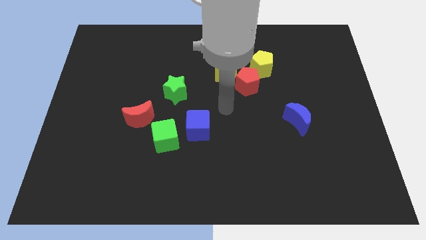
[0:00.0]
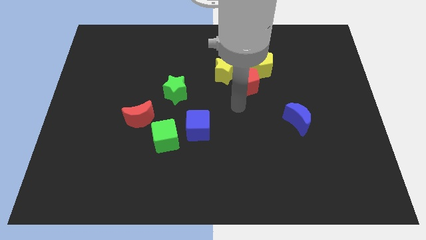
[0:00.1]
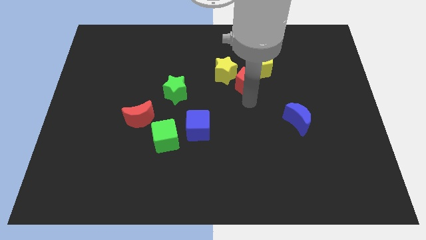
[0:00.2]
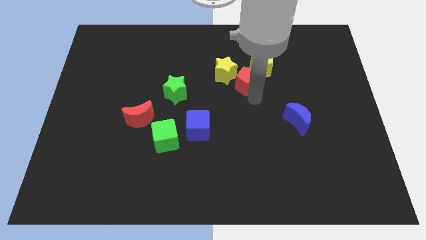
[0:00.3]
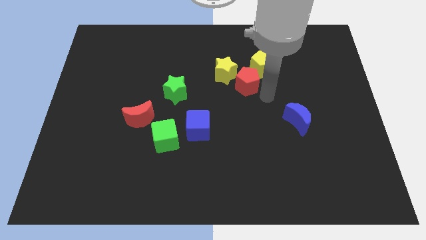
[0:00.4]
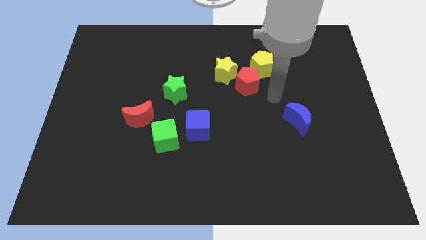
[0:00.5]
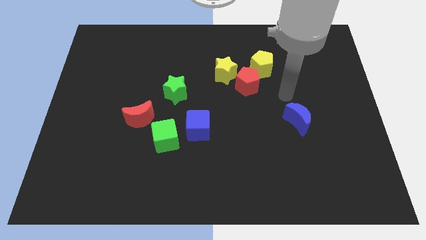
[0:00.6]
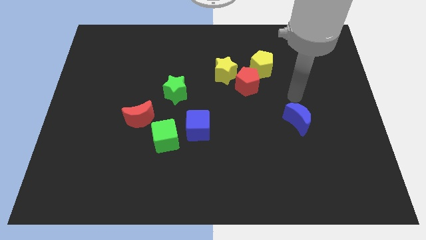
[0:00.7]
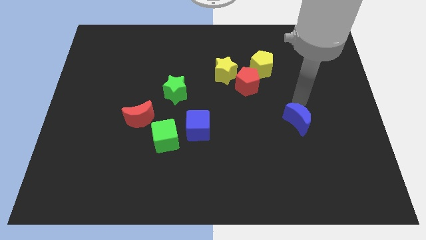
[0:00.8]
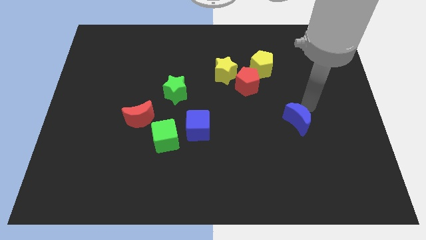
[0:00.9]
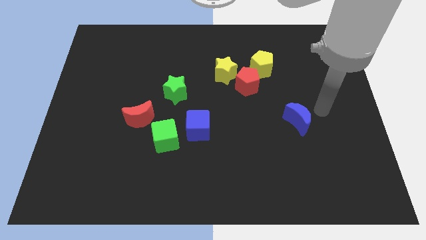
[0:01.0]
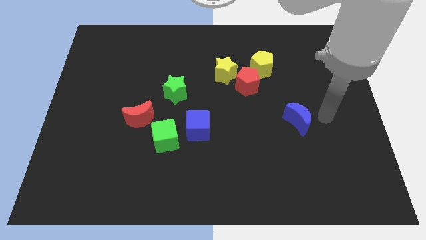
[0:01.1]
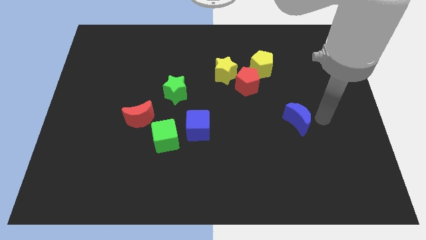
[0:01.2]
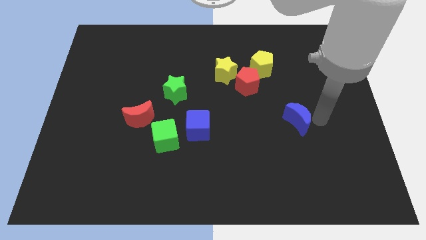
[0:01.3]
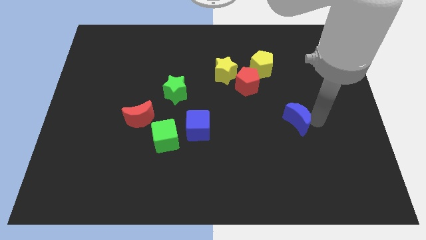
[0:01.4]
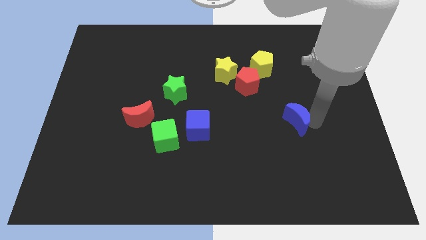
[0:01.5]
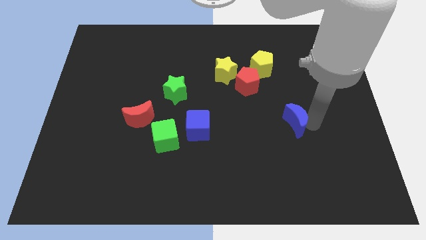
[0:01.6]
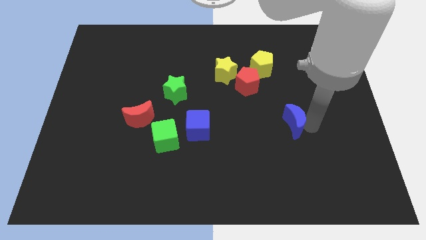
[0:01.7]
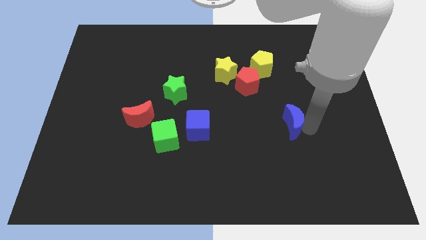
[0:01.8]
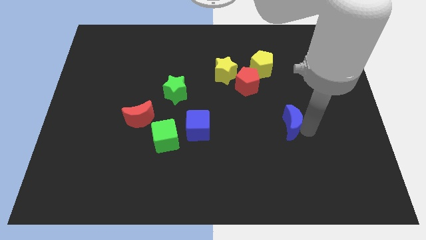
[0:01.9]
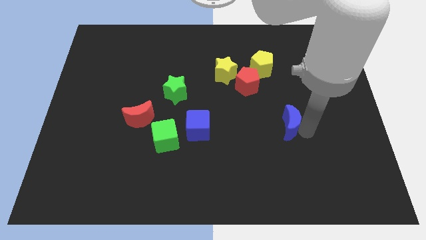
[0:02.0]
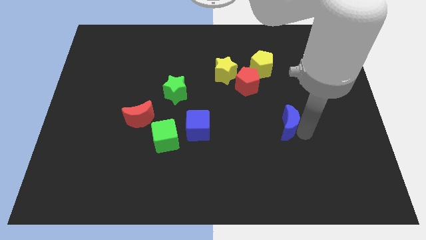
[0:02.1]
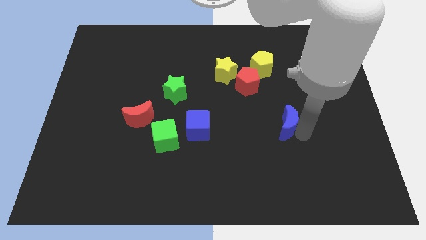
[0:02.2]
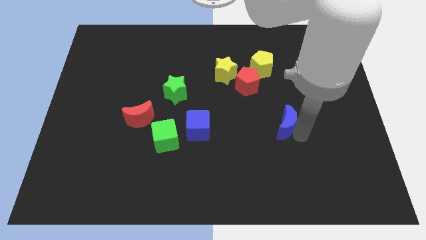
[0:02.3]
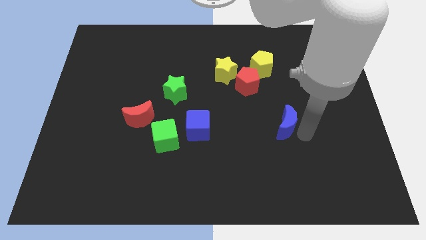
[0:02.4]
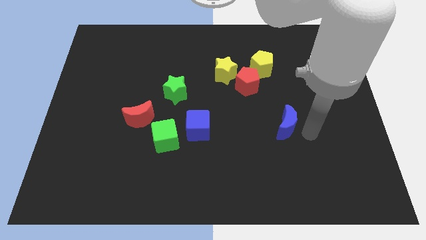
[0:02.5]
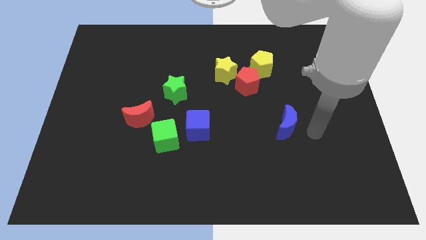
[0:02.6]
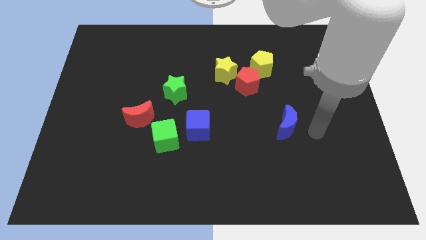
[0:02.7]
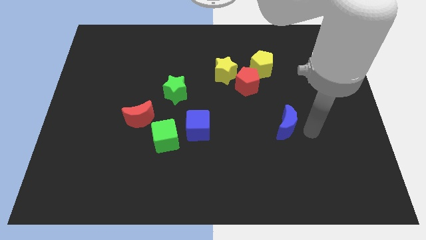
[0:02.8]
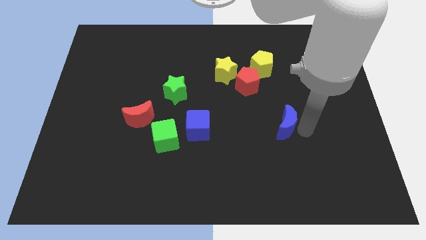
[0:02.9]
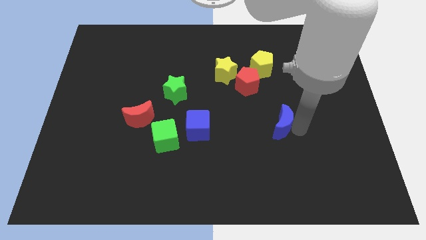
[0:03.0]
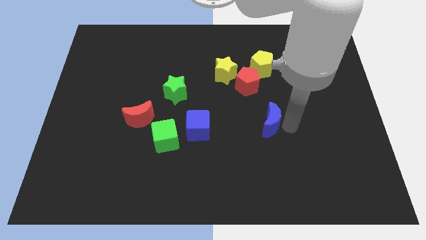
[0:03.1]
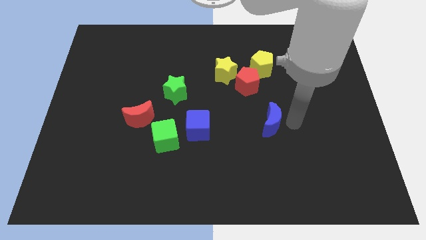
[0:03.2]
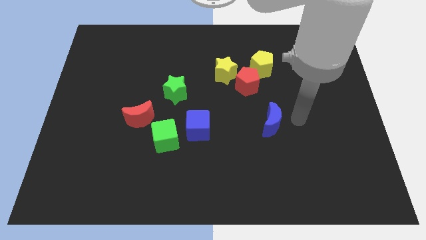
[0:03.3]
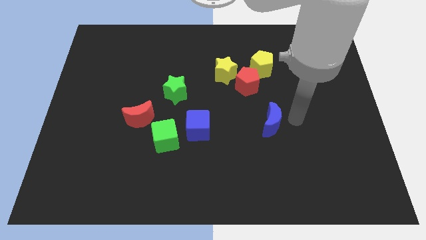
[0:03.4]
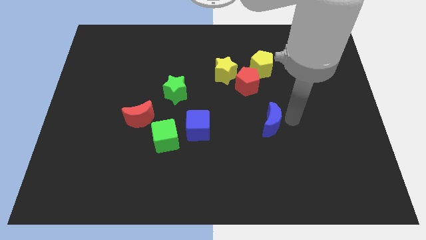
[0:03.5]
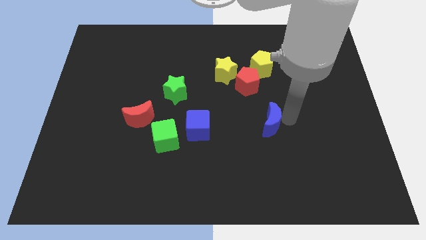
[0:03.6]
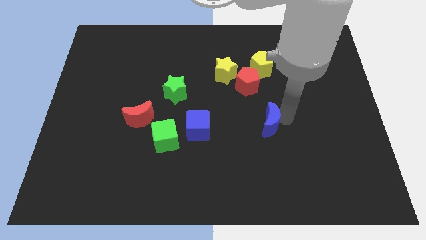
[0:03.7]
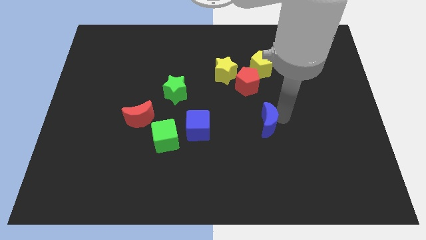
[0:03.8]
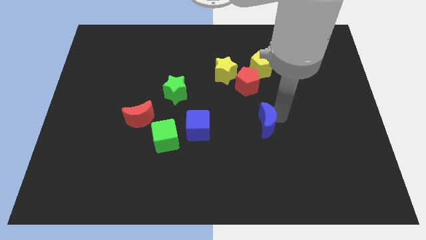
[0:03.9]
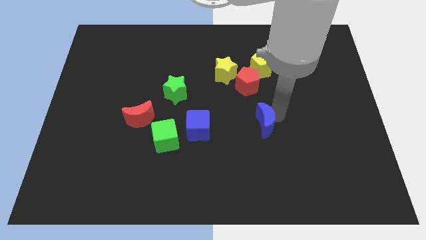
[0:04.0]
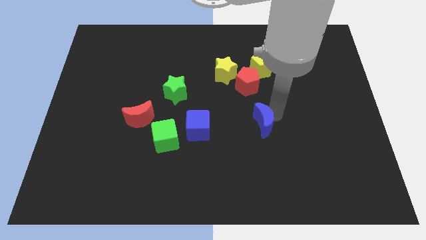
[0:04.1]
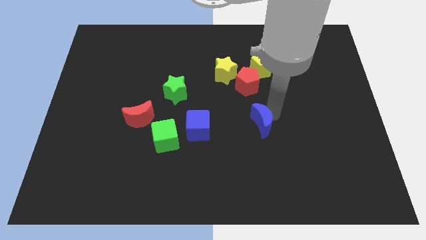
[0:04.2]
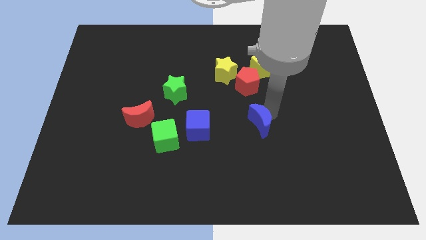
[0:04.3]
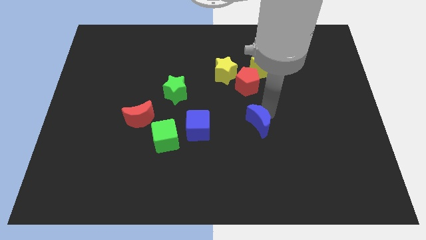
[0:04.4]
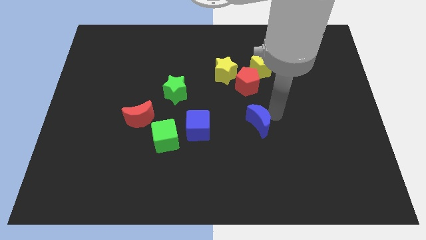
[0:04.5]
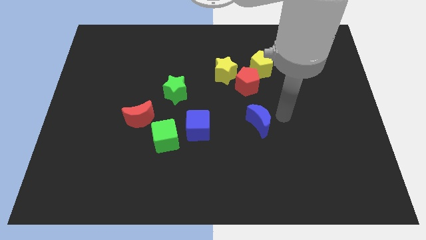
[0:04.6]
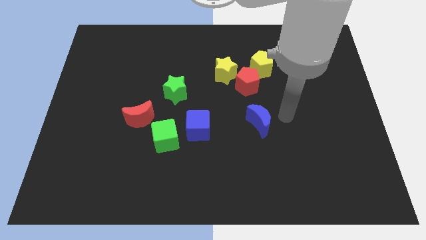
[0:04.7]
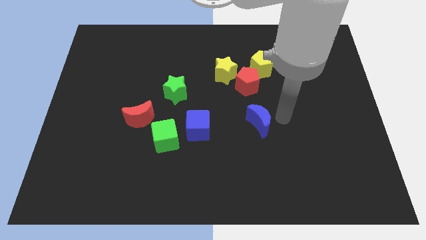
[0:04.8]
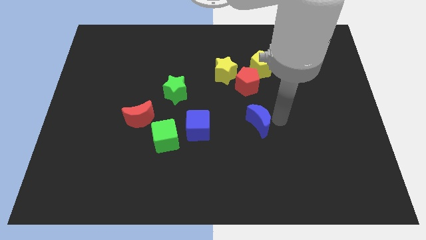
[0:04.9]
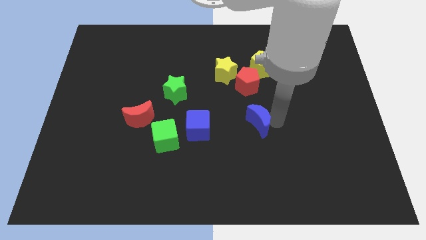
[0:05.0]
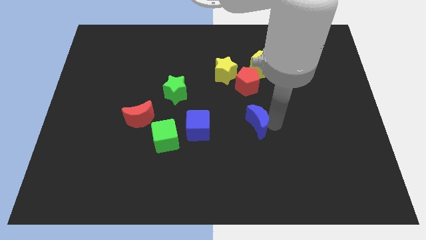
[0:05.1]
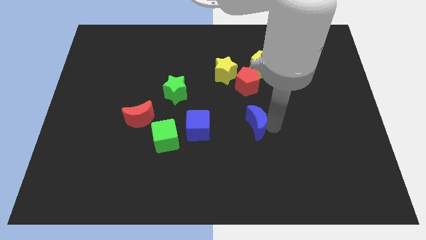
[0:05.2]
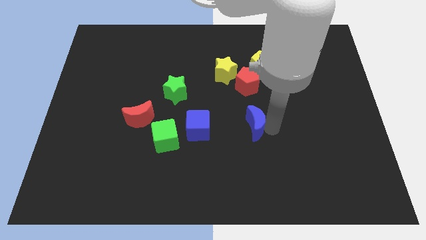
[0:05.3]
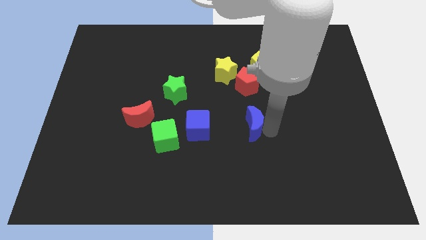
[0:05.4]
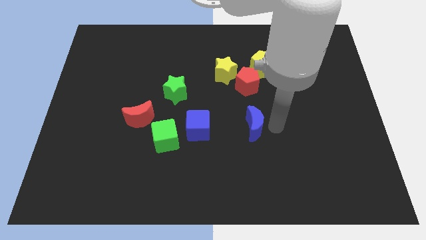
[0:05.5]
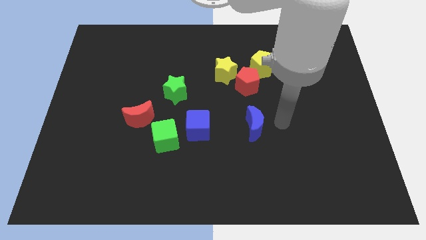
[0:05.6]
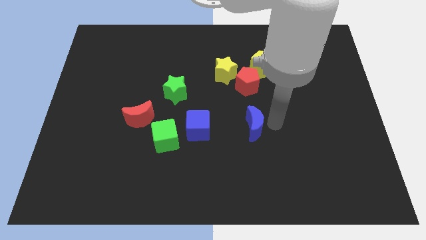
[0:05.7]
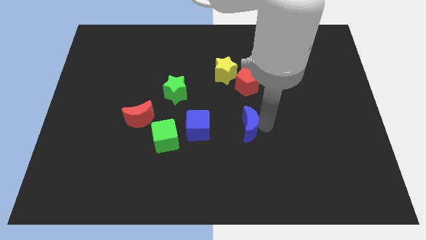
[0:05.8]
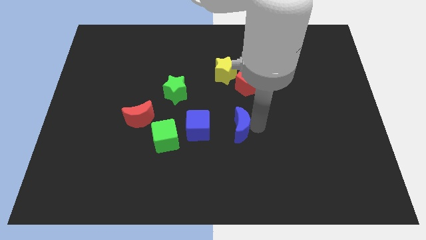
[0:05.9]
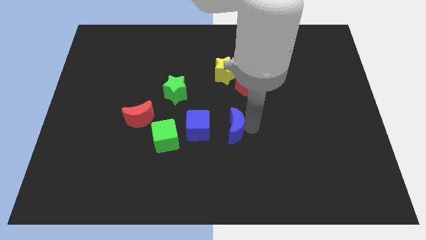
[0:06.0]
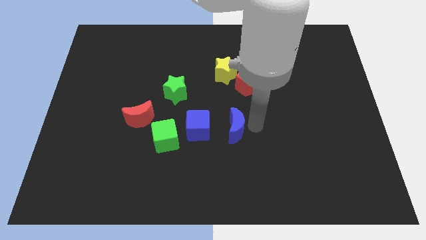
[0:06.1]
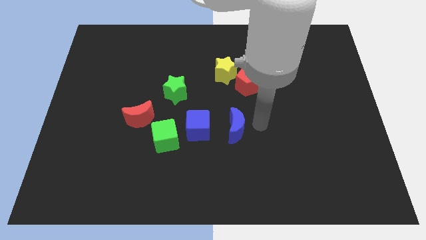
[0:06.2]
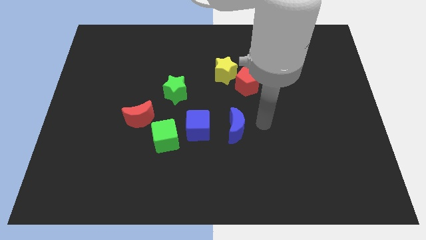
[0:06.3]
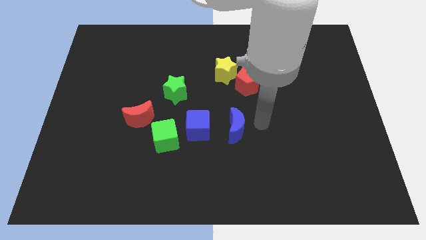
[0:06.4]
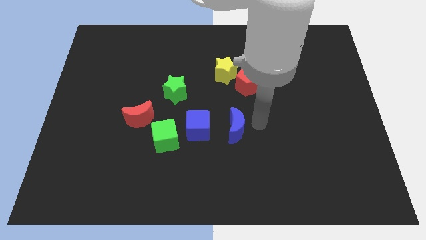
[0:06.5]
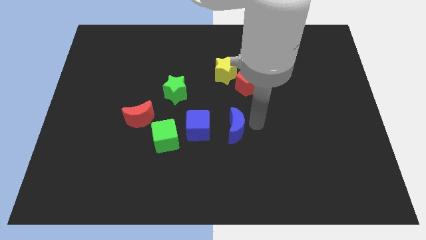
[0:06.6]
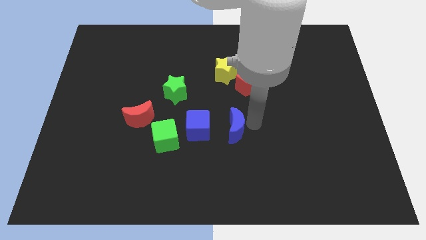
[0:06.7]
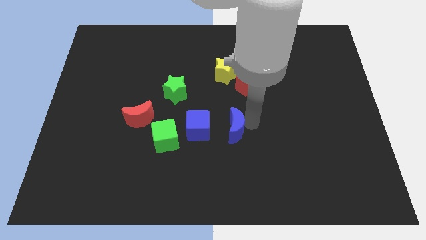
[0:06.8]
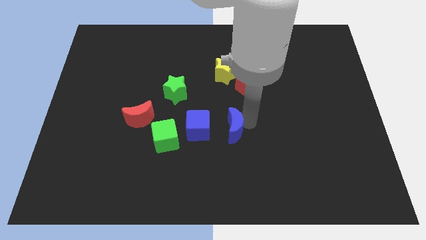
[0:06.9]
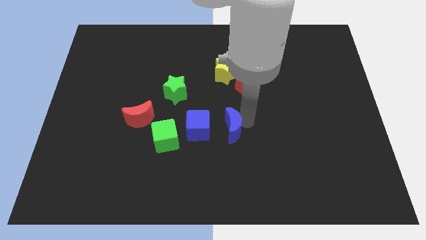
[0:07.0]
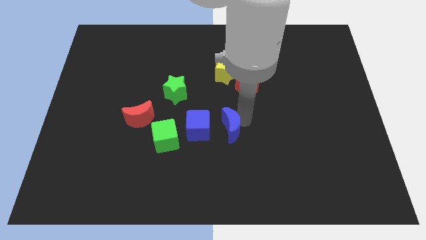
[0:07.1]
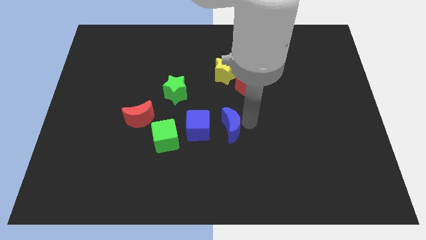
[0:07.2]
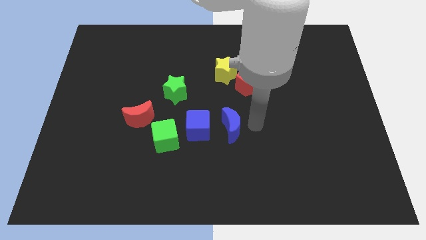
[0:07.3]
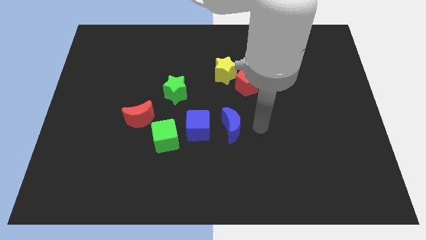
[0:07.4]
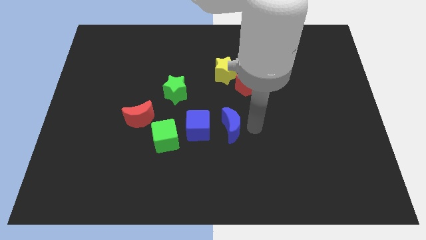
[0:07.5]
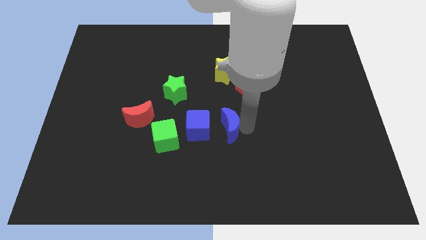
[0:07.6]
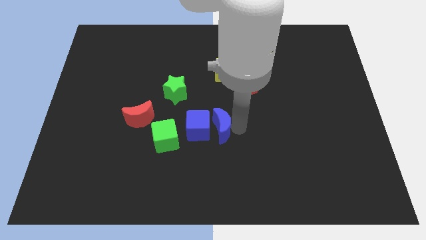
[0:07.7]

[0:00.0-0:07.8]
slide the blue moon close to the blue cube
